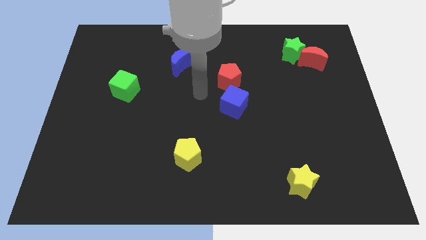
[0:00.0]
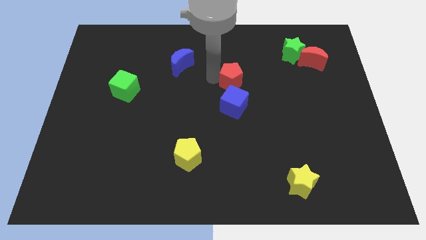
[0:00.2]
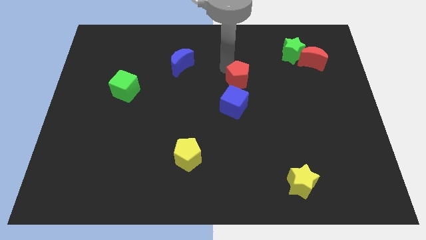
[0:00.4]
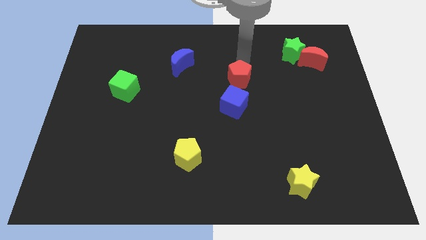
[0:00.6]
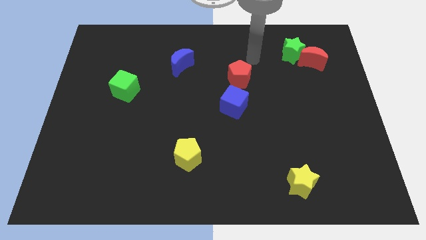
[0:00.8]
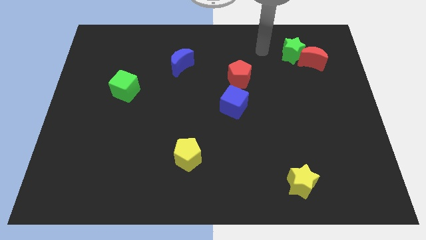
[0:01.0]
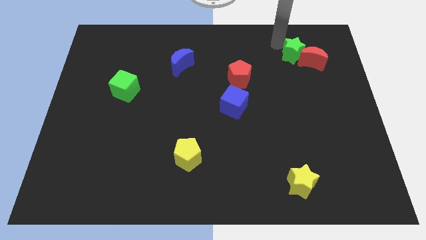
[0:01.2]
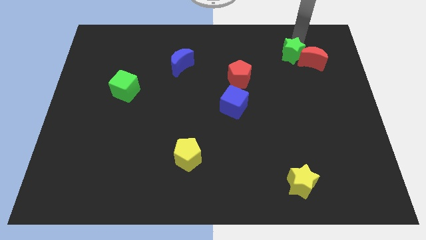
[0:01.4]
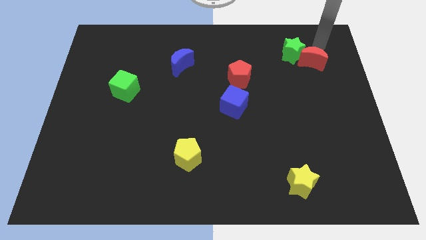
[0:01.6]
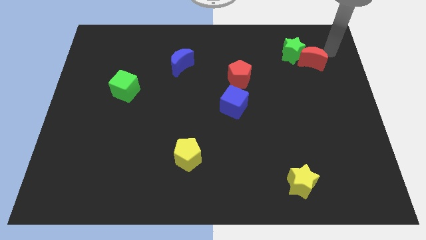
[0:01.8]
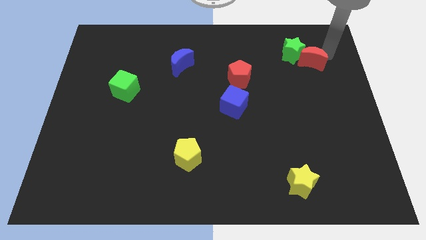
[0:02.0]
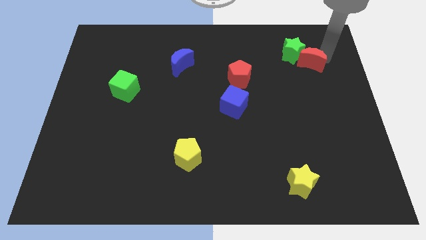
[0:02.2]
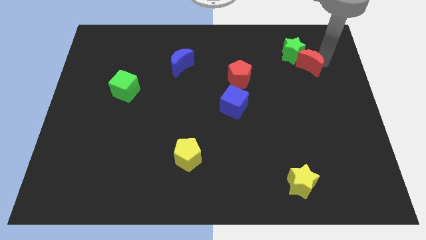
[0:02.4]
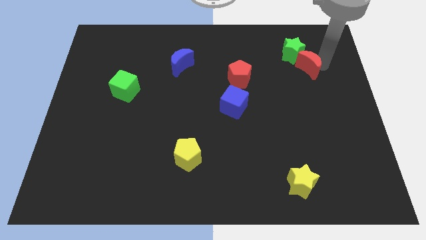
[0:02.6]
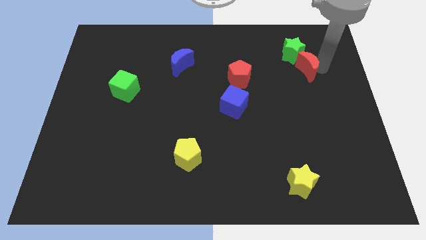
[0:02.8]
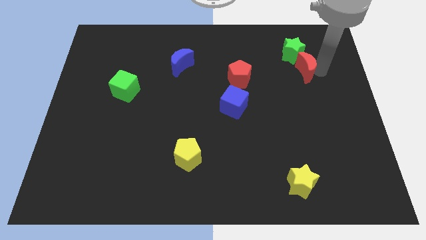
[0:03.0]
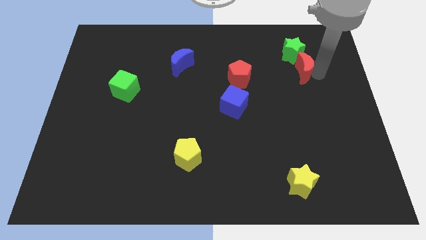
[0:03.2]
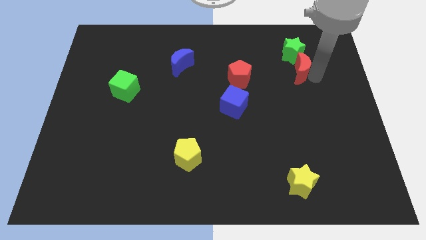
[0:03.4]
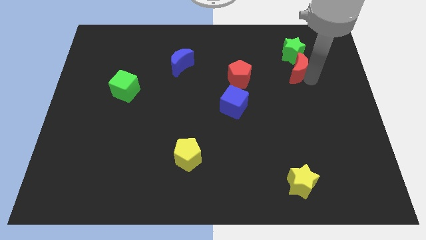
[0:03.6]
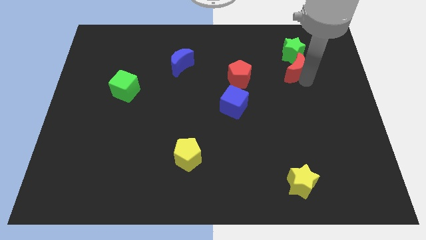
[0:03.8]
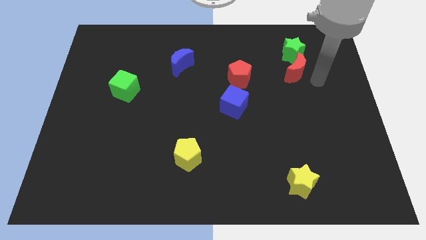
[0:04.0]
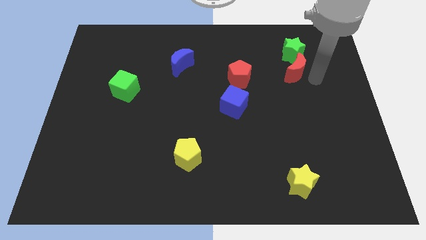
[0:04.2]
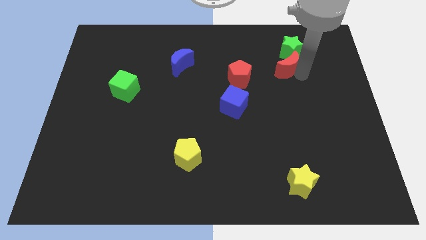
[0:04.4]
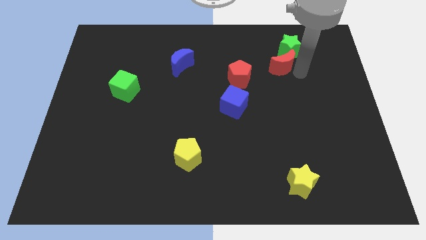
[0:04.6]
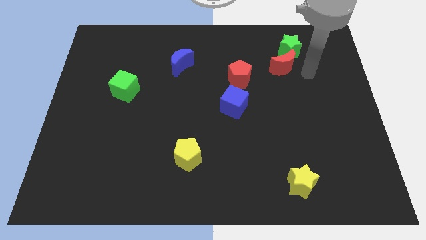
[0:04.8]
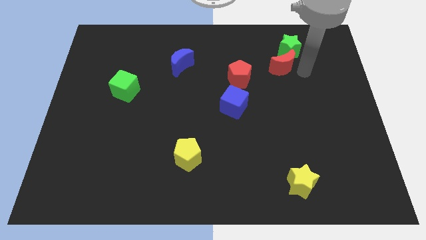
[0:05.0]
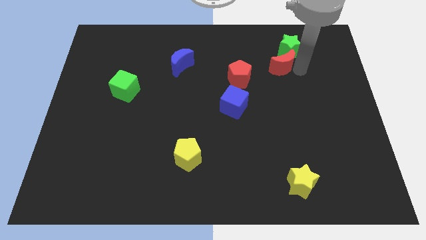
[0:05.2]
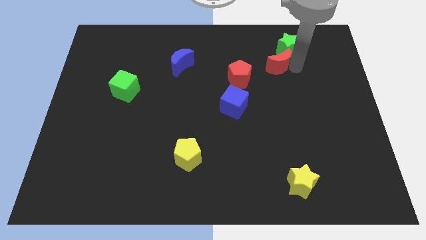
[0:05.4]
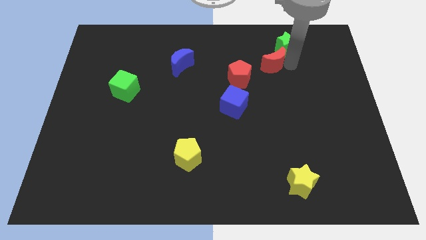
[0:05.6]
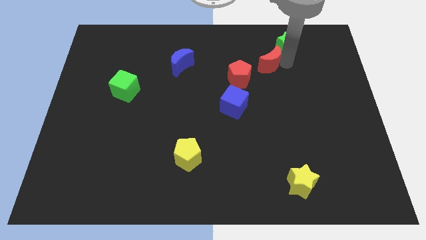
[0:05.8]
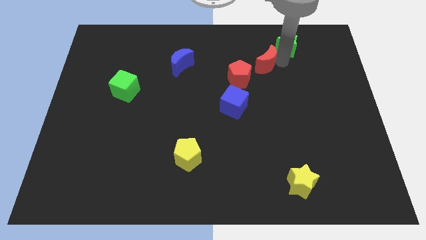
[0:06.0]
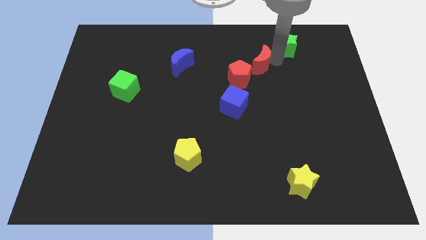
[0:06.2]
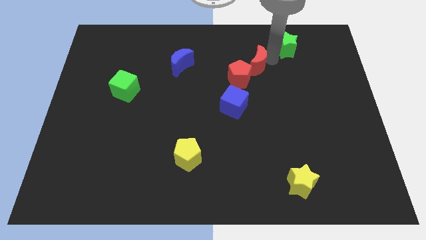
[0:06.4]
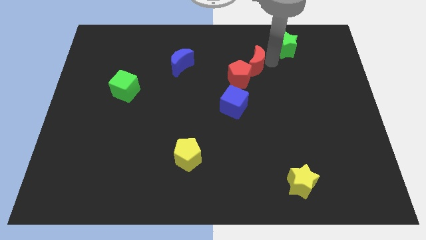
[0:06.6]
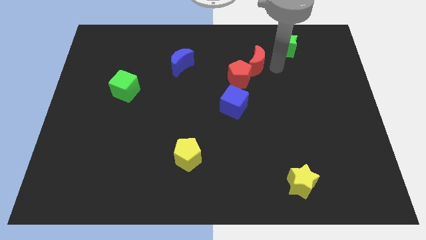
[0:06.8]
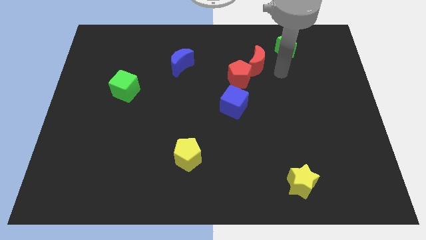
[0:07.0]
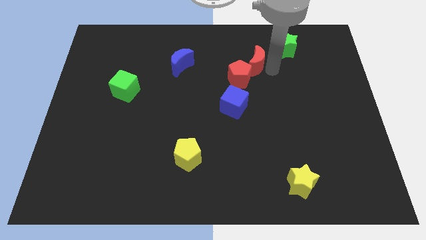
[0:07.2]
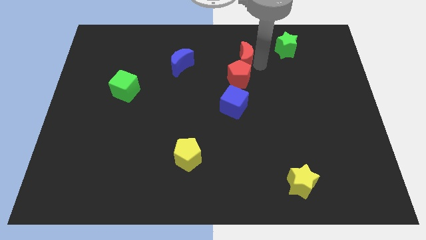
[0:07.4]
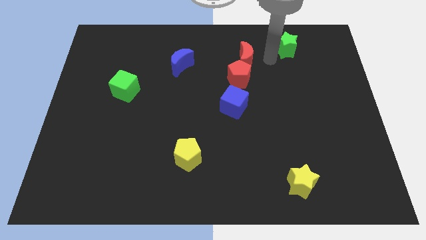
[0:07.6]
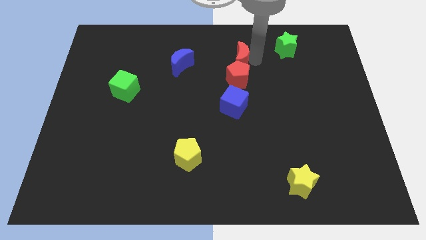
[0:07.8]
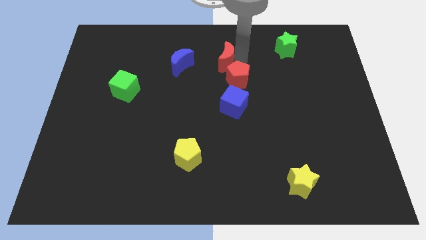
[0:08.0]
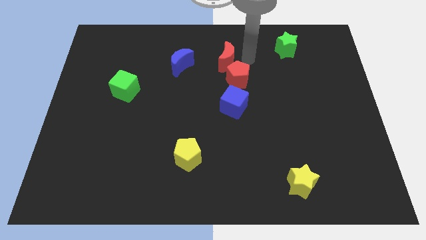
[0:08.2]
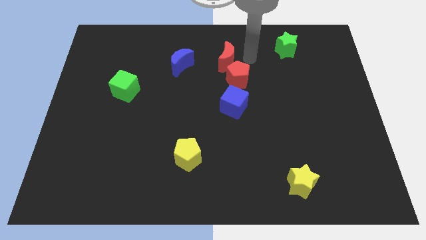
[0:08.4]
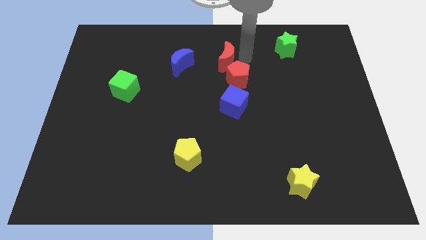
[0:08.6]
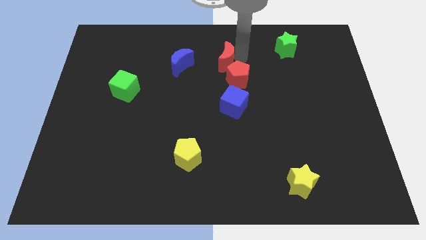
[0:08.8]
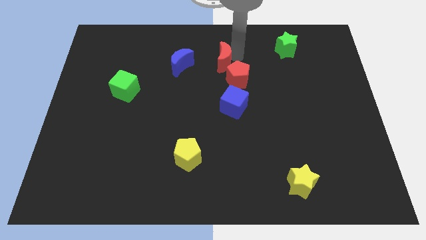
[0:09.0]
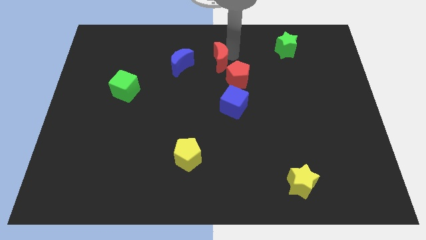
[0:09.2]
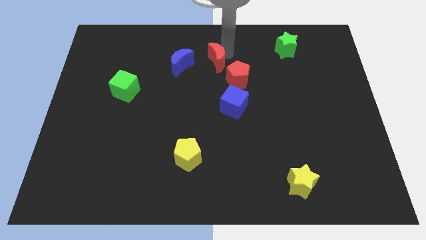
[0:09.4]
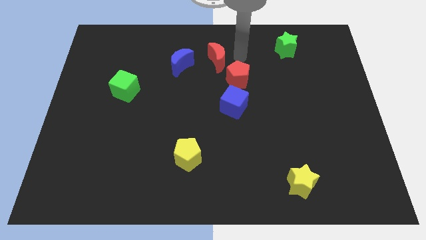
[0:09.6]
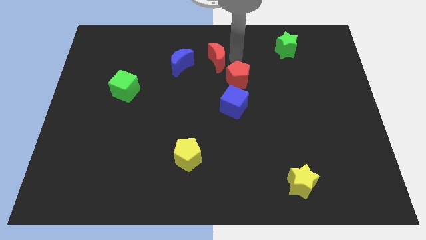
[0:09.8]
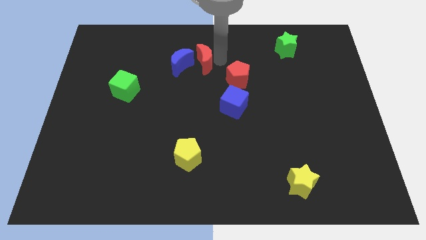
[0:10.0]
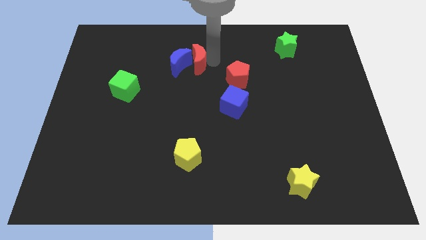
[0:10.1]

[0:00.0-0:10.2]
move the red moon next to the blue moon

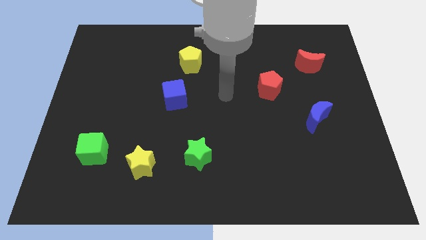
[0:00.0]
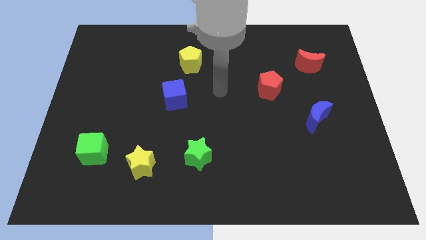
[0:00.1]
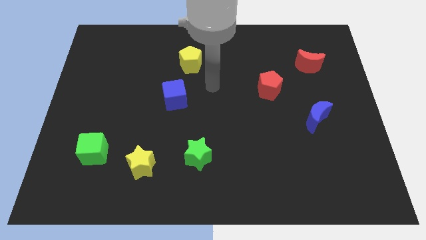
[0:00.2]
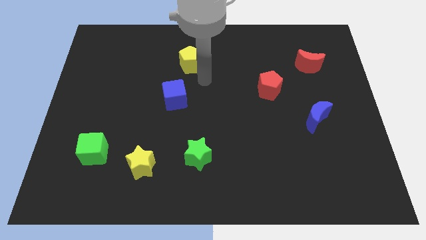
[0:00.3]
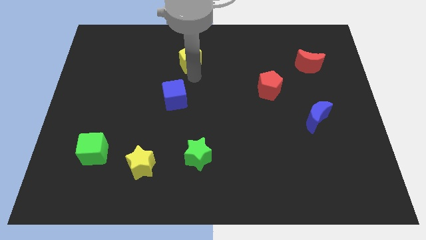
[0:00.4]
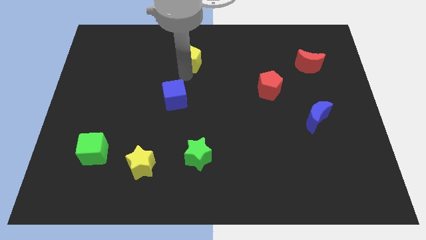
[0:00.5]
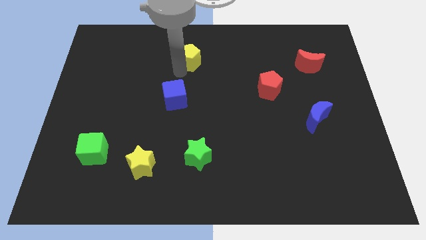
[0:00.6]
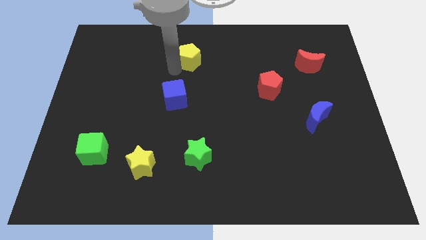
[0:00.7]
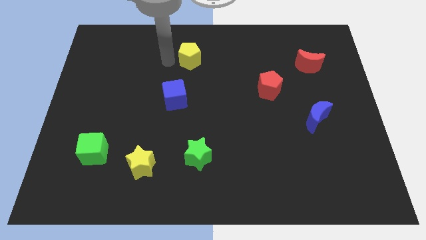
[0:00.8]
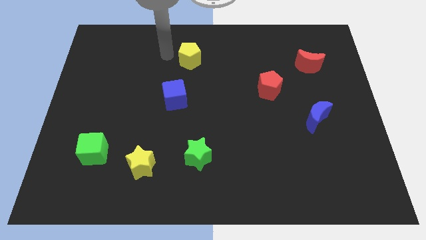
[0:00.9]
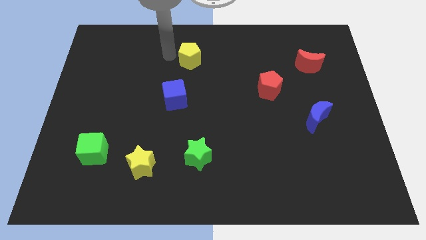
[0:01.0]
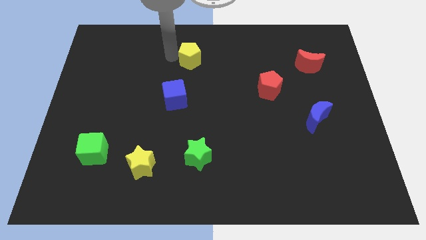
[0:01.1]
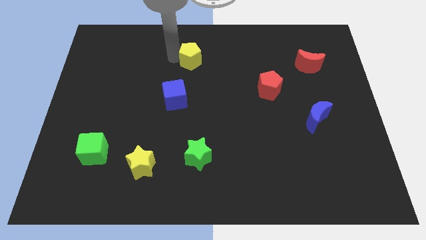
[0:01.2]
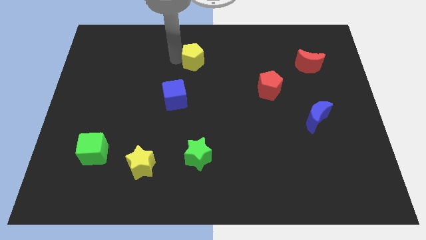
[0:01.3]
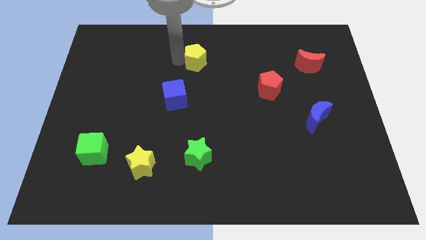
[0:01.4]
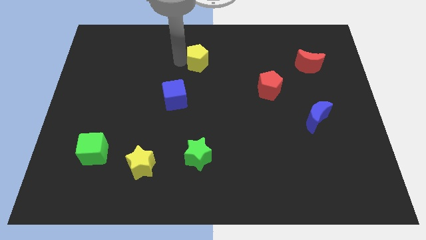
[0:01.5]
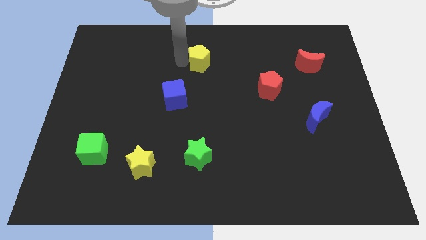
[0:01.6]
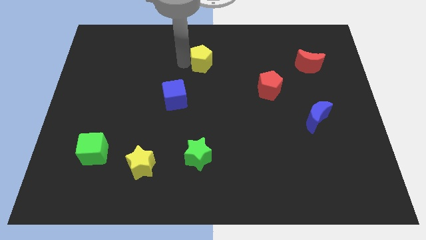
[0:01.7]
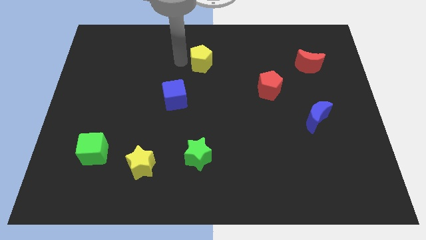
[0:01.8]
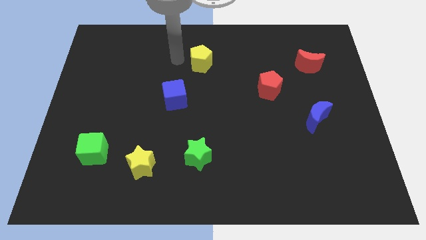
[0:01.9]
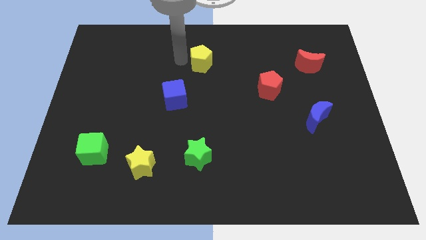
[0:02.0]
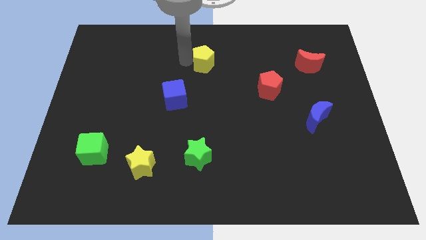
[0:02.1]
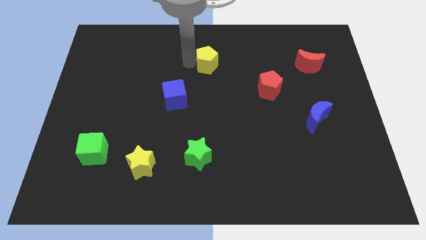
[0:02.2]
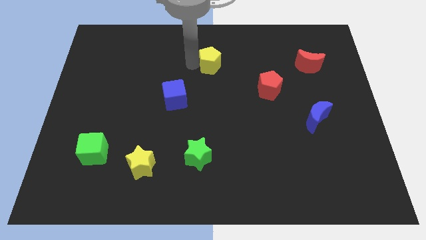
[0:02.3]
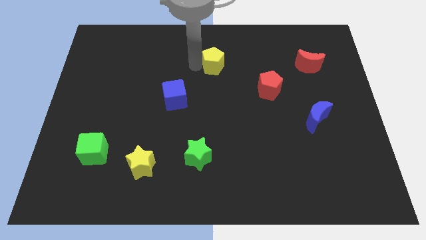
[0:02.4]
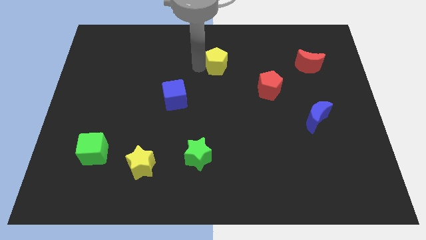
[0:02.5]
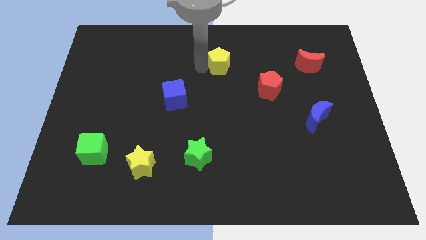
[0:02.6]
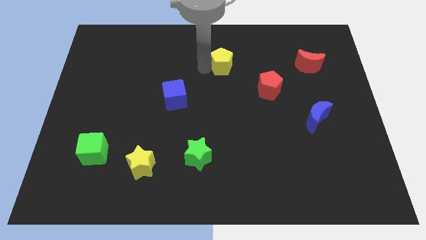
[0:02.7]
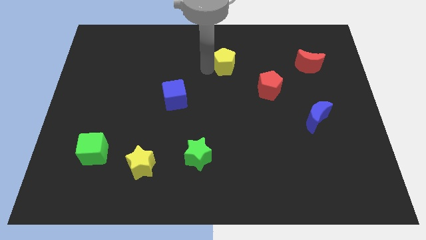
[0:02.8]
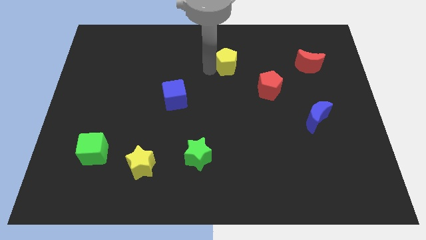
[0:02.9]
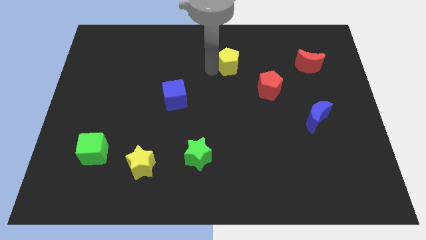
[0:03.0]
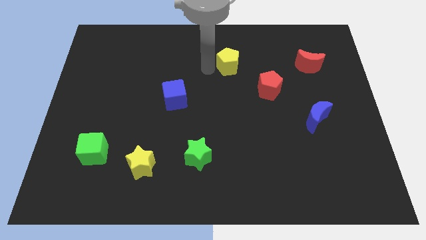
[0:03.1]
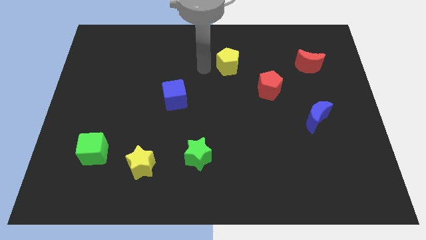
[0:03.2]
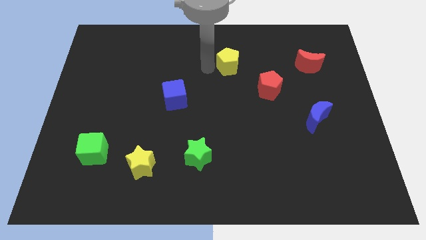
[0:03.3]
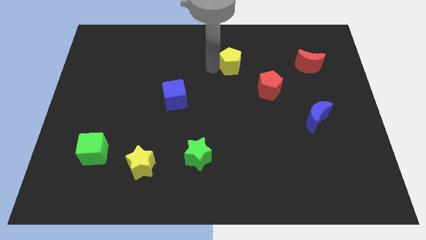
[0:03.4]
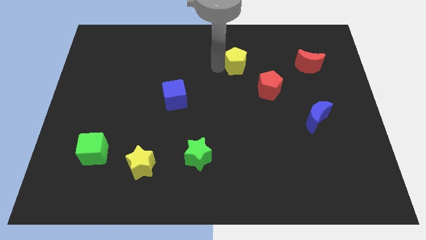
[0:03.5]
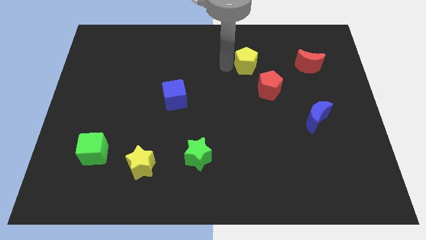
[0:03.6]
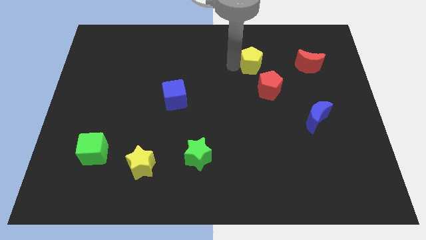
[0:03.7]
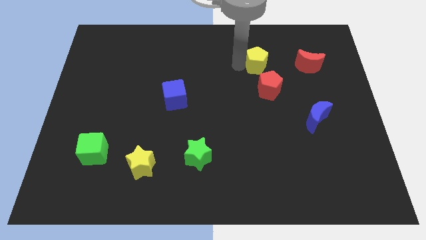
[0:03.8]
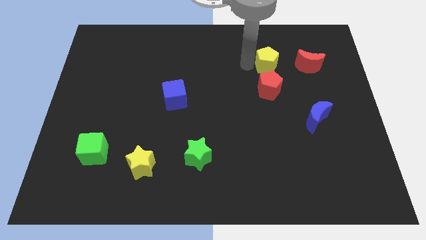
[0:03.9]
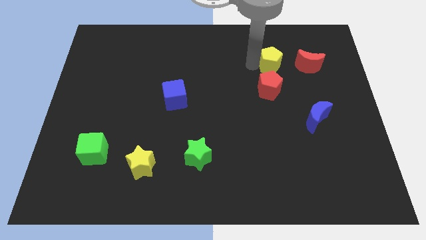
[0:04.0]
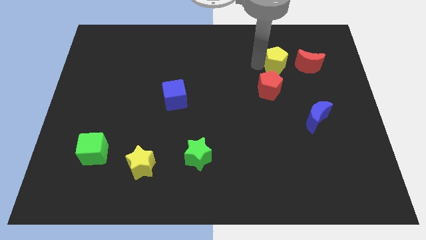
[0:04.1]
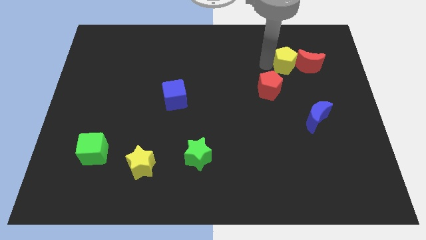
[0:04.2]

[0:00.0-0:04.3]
move the yellow pentagon to the red moon
